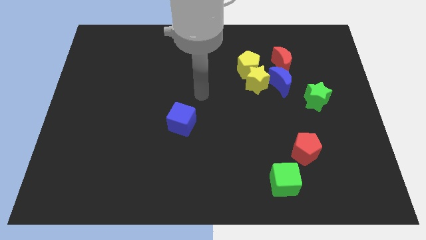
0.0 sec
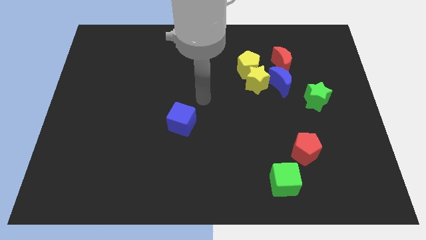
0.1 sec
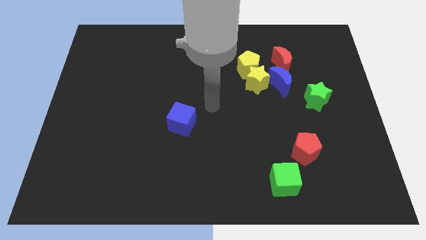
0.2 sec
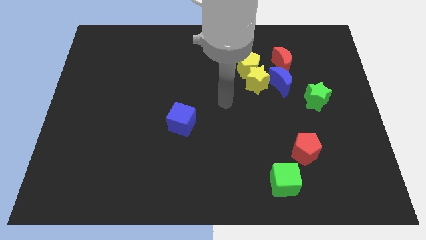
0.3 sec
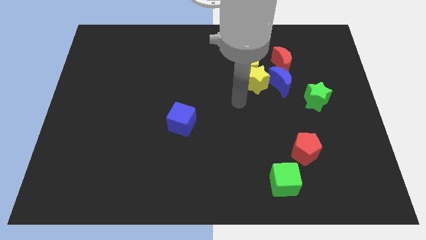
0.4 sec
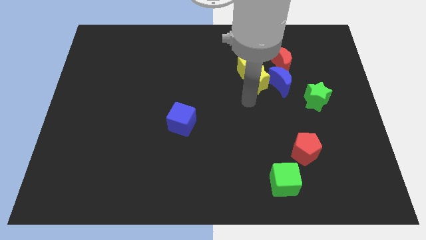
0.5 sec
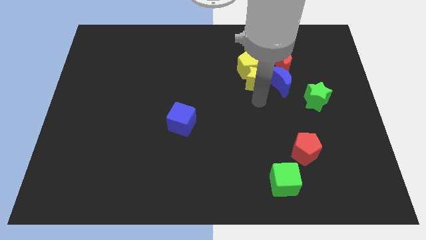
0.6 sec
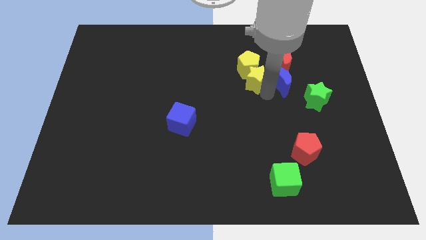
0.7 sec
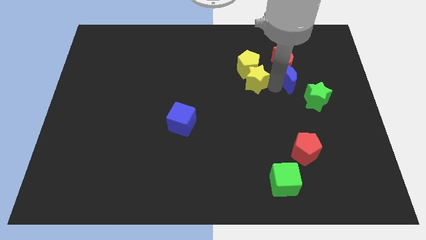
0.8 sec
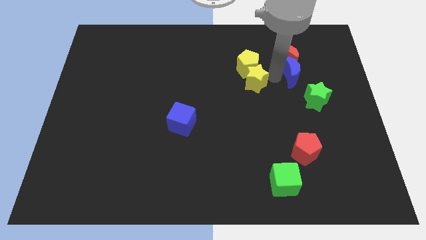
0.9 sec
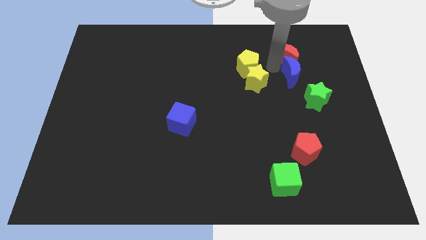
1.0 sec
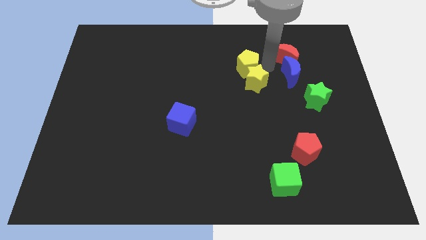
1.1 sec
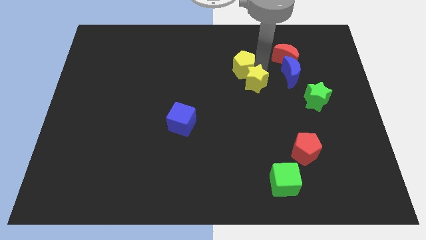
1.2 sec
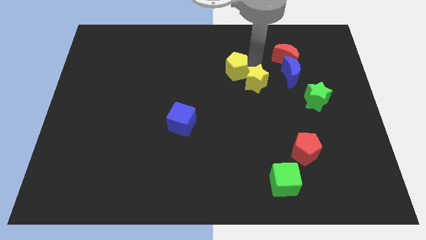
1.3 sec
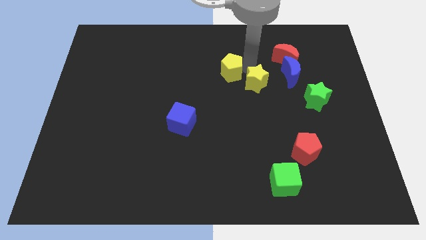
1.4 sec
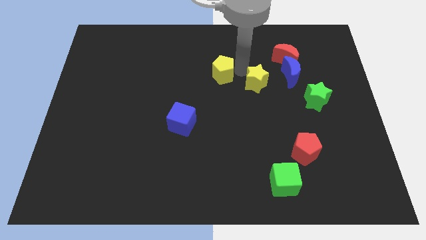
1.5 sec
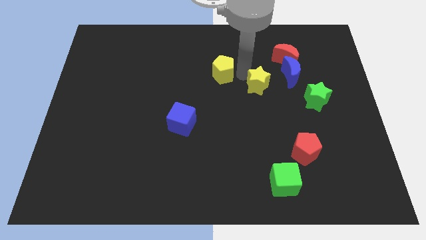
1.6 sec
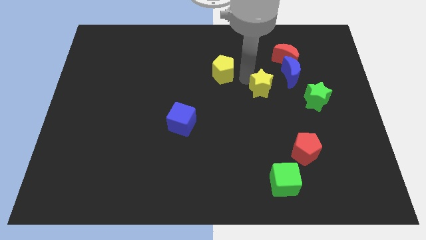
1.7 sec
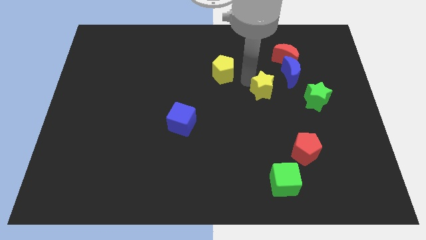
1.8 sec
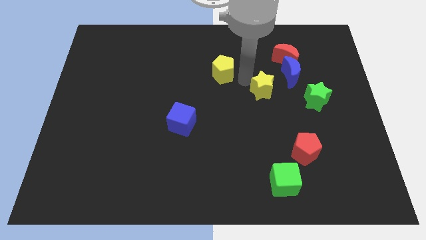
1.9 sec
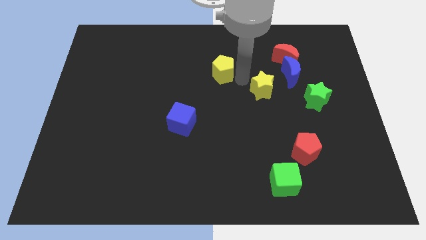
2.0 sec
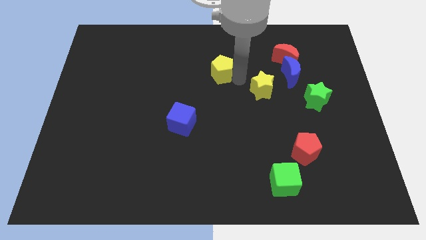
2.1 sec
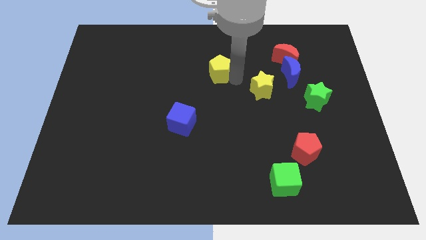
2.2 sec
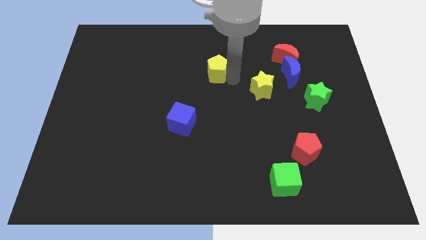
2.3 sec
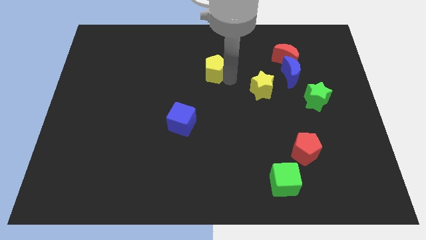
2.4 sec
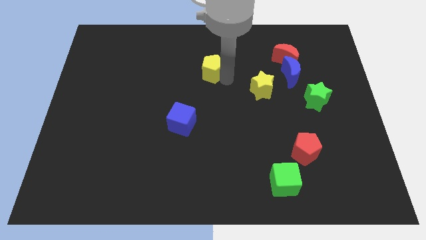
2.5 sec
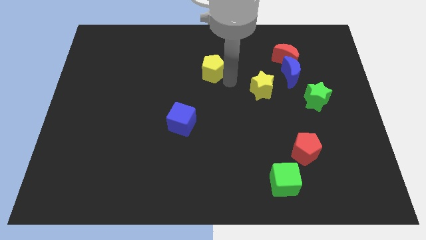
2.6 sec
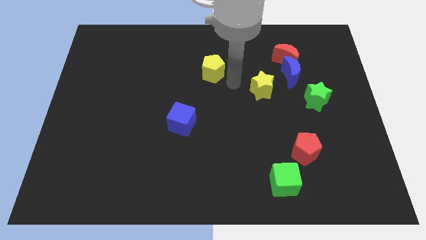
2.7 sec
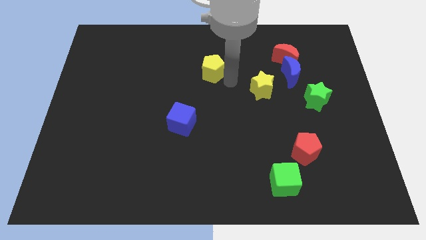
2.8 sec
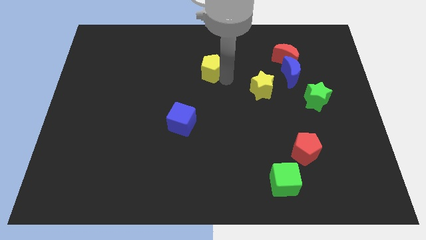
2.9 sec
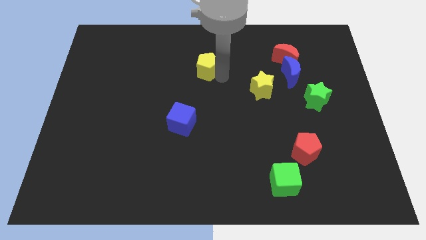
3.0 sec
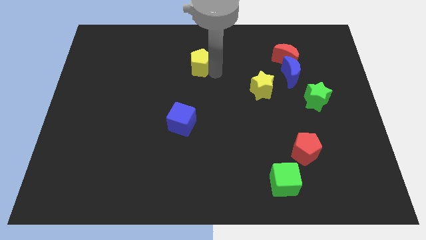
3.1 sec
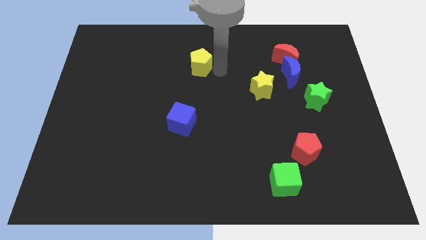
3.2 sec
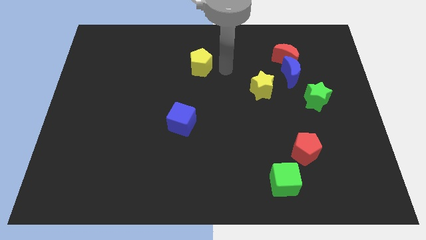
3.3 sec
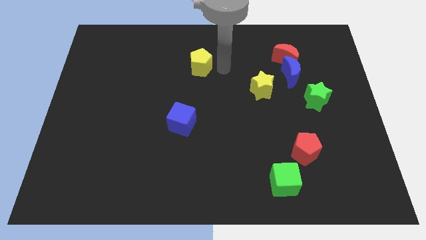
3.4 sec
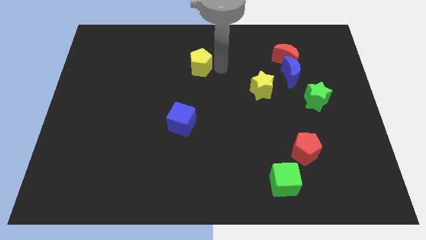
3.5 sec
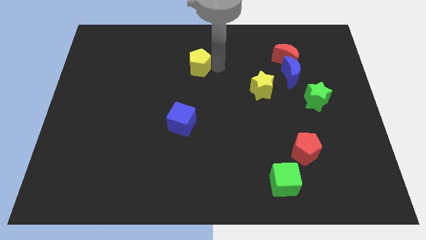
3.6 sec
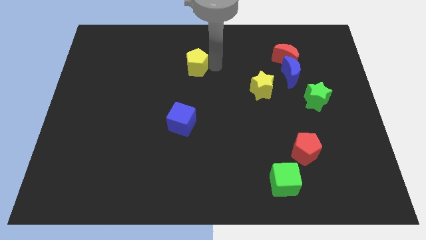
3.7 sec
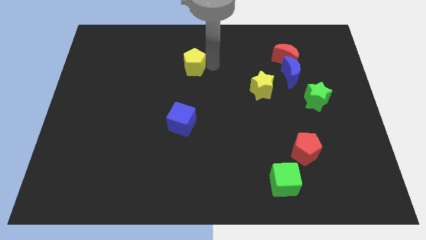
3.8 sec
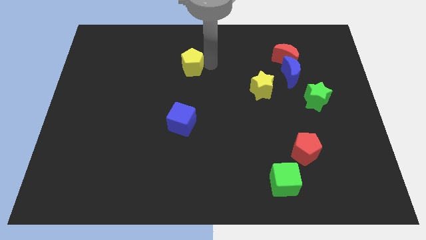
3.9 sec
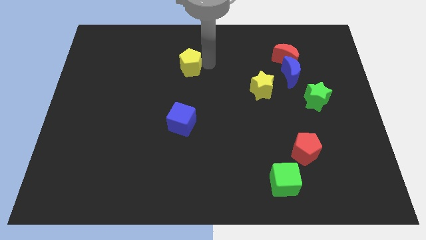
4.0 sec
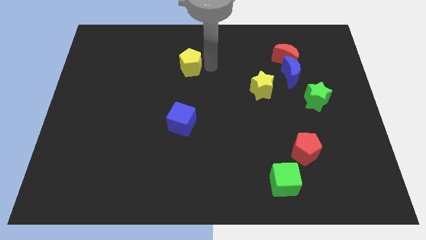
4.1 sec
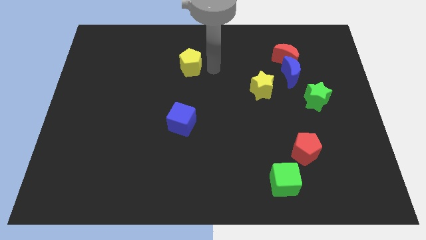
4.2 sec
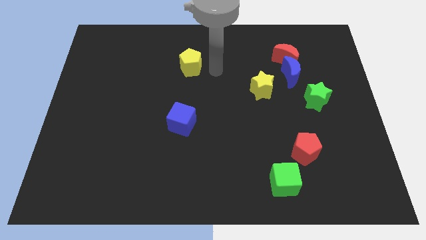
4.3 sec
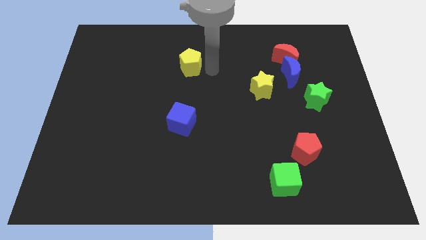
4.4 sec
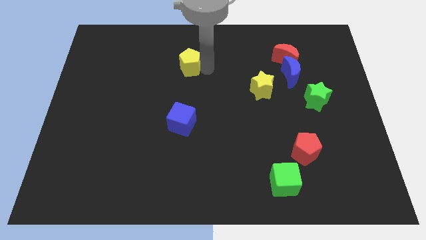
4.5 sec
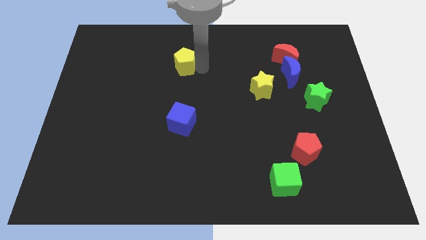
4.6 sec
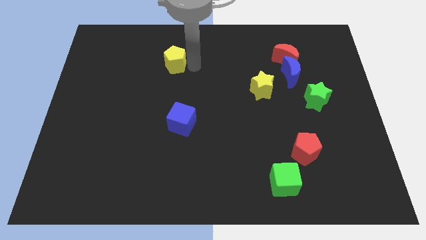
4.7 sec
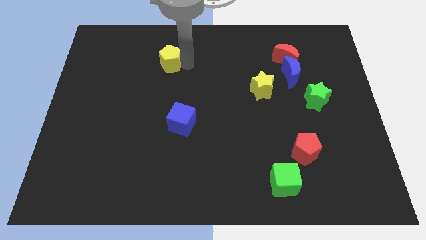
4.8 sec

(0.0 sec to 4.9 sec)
slide the yellow pentagon left

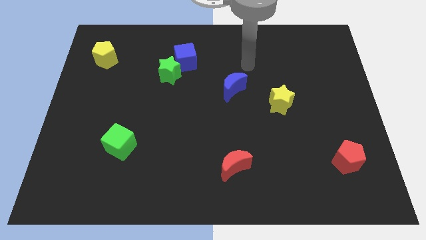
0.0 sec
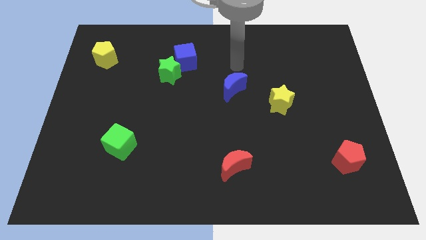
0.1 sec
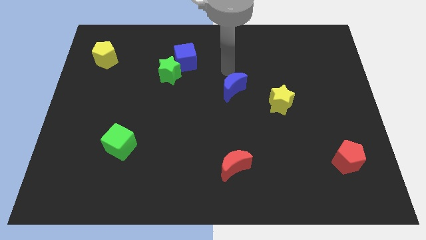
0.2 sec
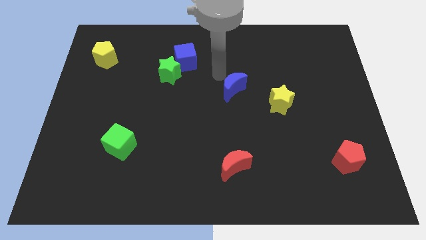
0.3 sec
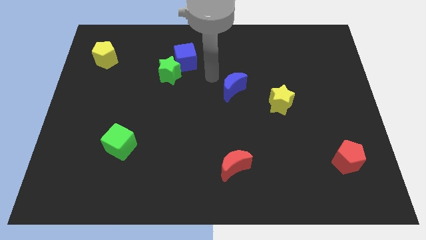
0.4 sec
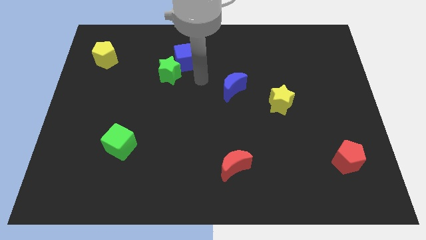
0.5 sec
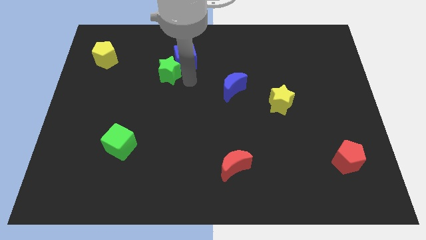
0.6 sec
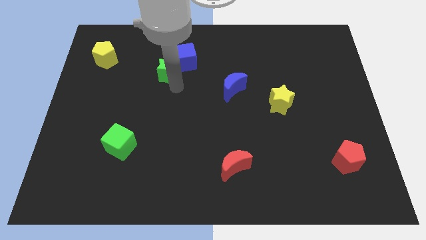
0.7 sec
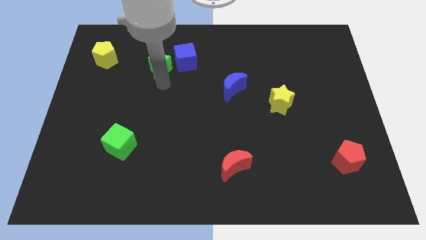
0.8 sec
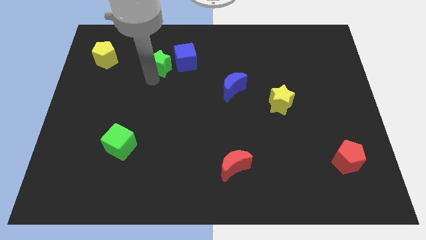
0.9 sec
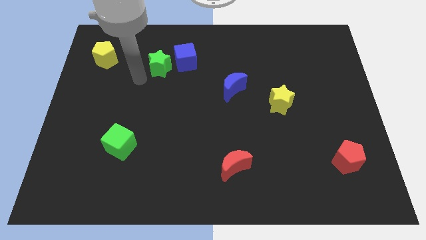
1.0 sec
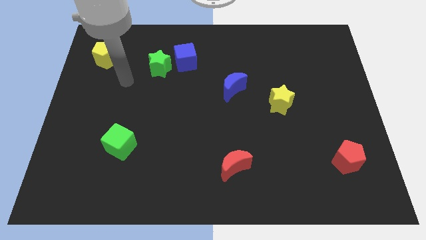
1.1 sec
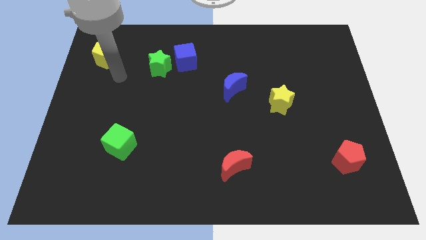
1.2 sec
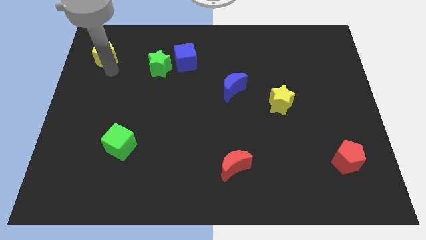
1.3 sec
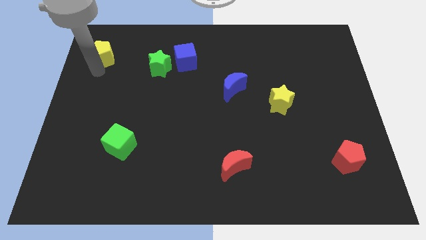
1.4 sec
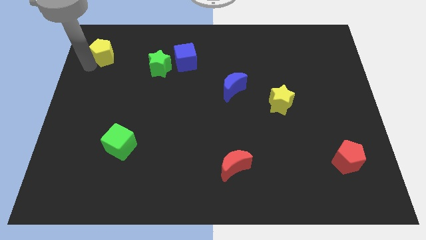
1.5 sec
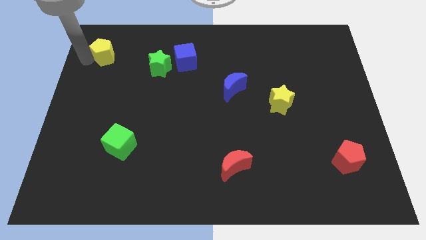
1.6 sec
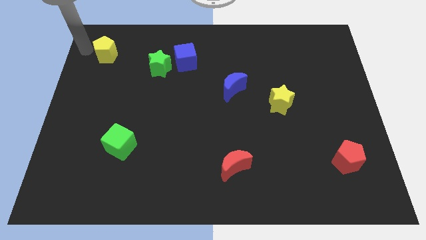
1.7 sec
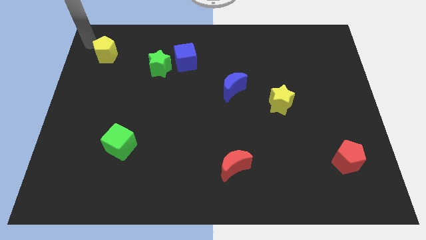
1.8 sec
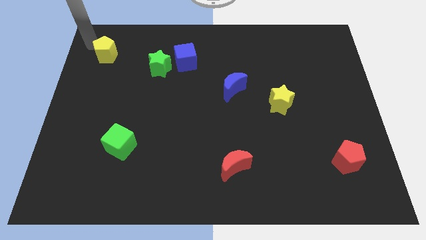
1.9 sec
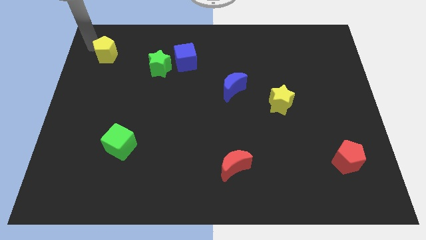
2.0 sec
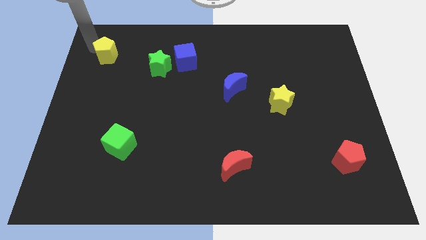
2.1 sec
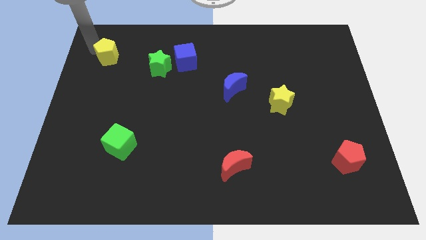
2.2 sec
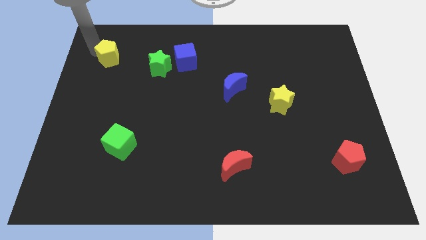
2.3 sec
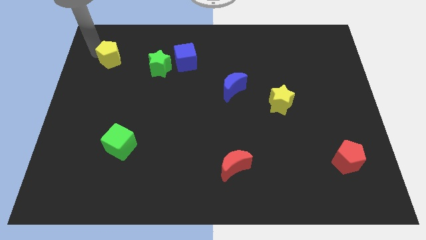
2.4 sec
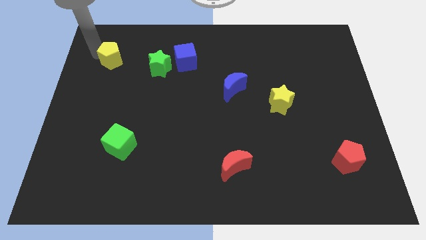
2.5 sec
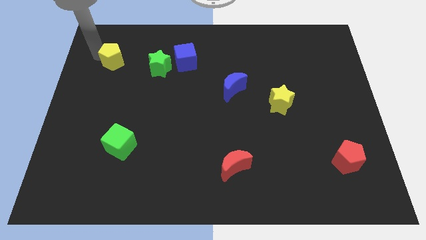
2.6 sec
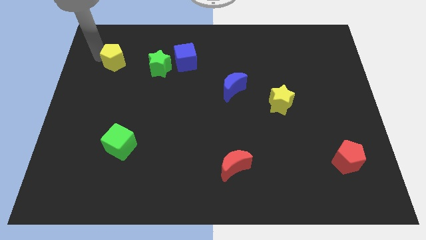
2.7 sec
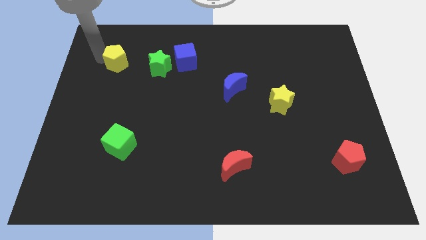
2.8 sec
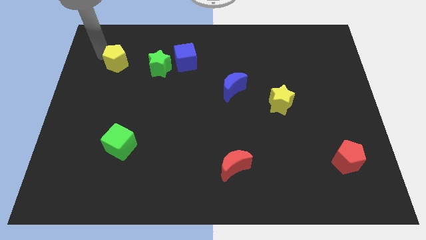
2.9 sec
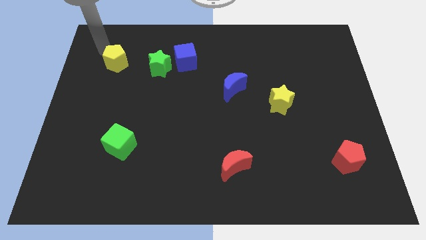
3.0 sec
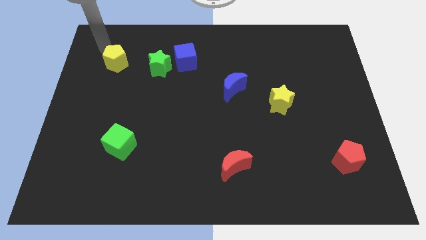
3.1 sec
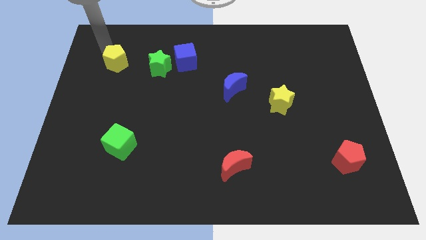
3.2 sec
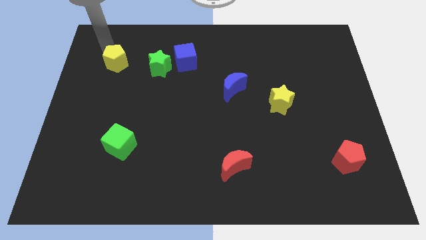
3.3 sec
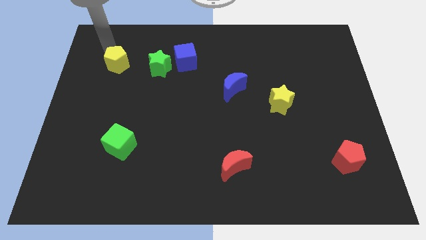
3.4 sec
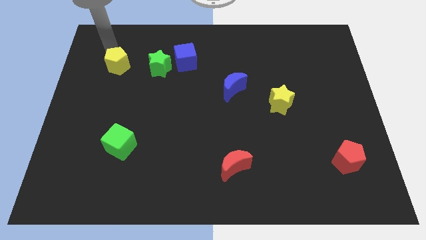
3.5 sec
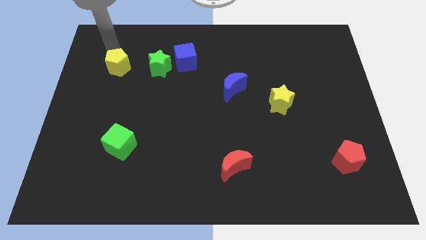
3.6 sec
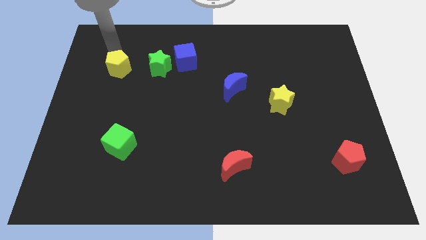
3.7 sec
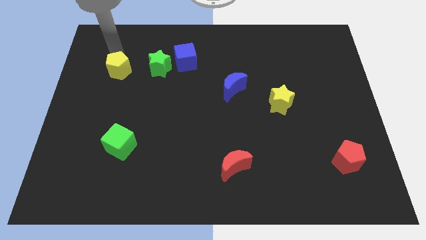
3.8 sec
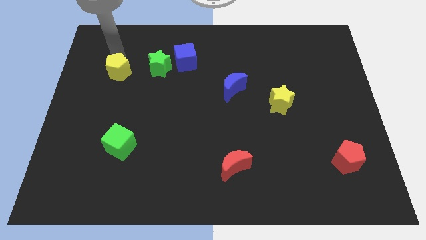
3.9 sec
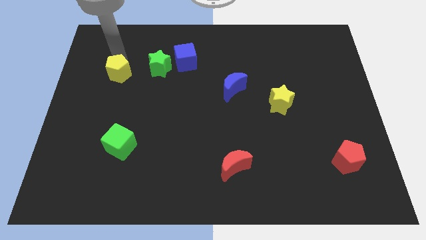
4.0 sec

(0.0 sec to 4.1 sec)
slightly slide the yellow pentagon down and then right
